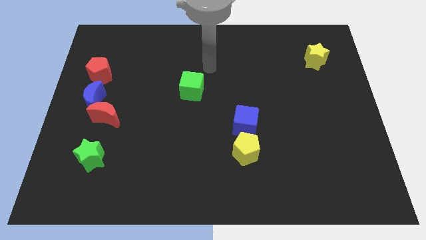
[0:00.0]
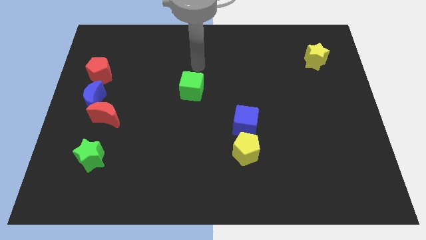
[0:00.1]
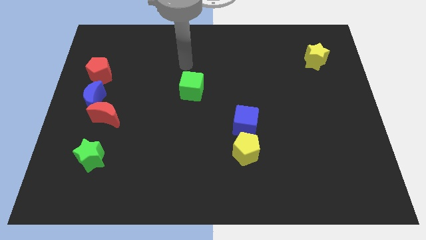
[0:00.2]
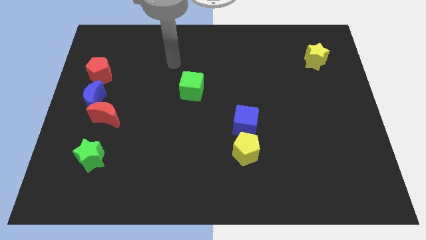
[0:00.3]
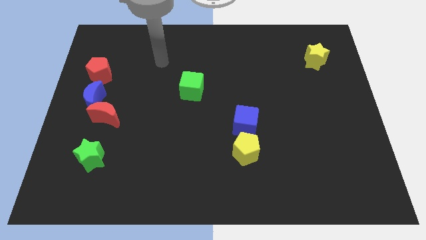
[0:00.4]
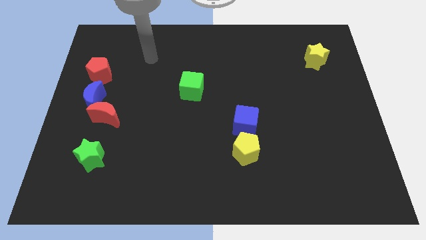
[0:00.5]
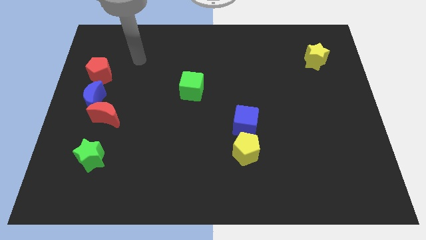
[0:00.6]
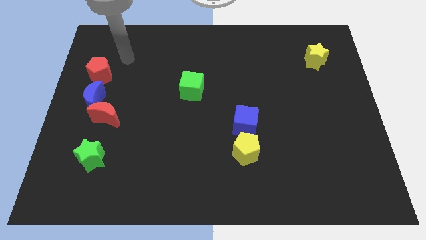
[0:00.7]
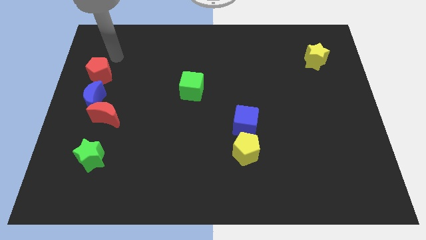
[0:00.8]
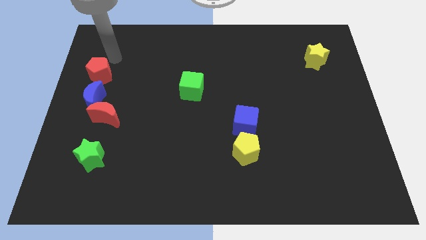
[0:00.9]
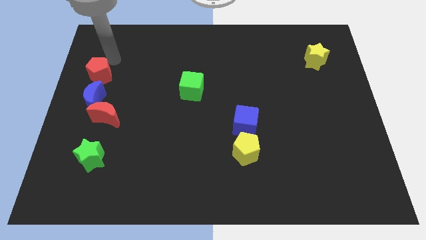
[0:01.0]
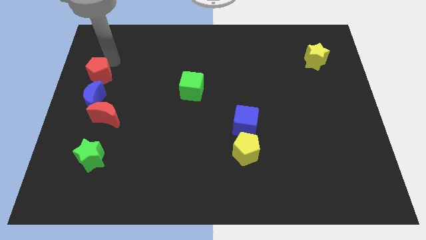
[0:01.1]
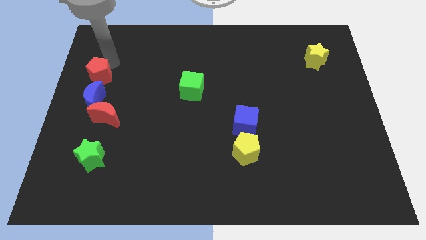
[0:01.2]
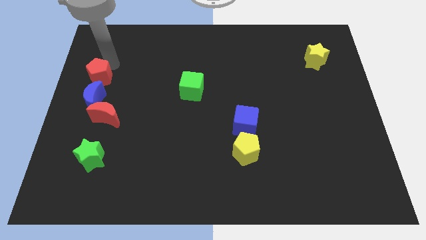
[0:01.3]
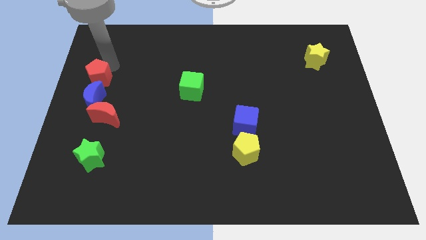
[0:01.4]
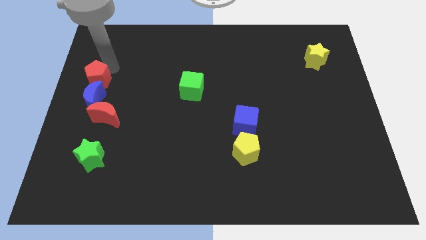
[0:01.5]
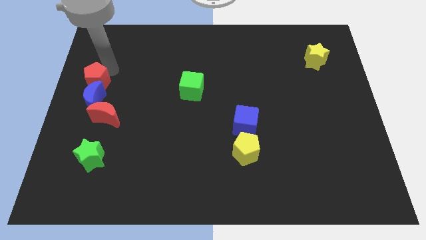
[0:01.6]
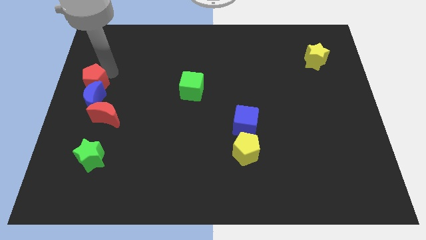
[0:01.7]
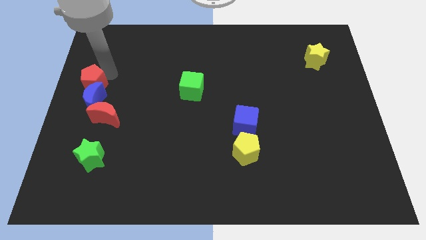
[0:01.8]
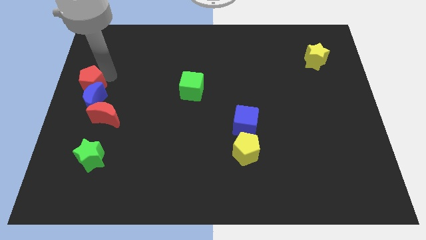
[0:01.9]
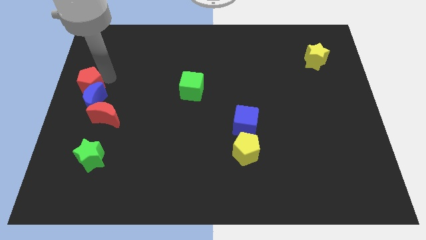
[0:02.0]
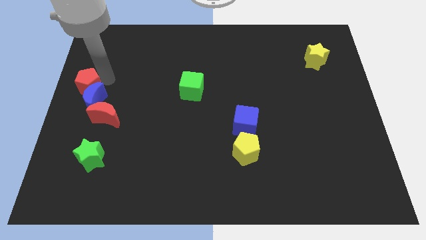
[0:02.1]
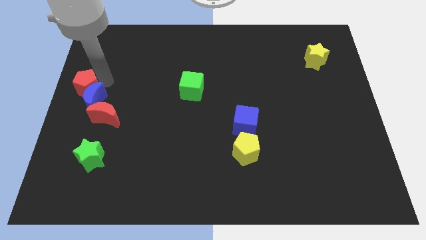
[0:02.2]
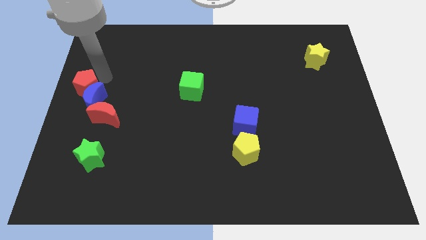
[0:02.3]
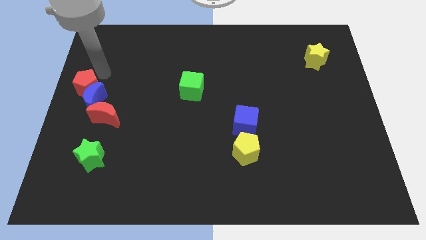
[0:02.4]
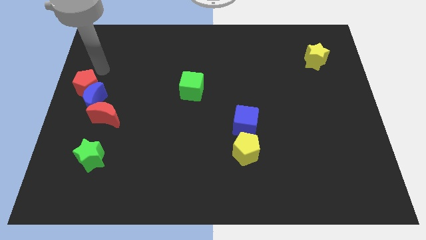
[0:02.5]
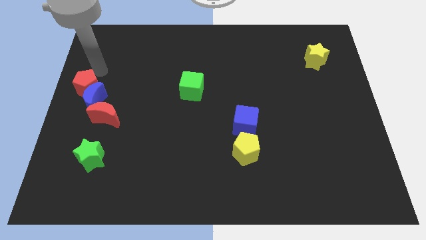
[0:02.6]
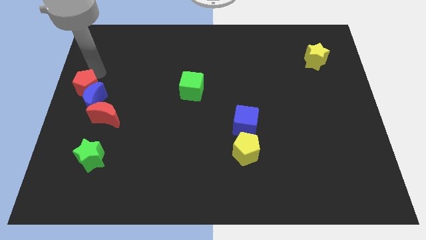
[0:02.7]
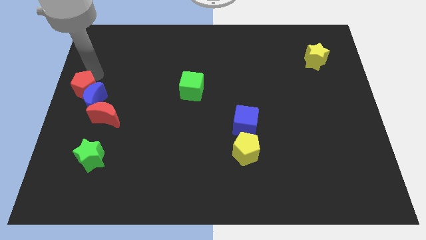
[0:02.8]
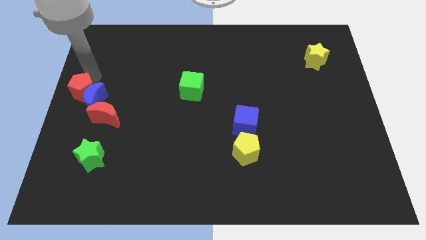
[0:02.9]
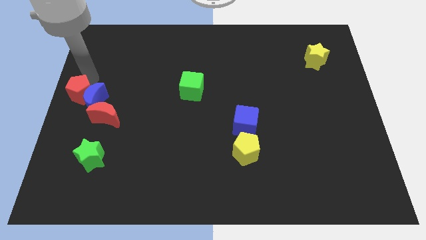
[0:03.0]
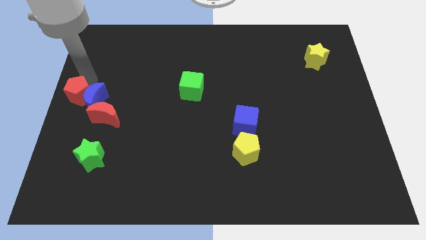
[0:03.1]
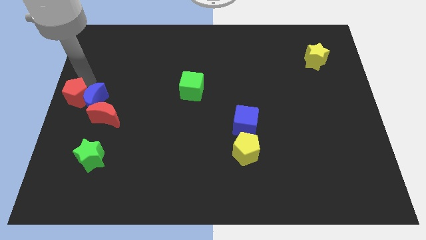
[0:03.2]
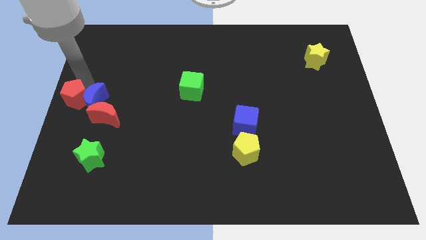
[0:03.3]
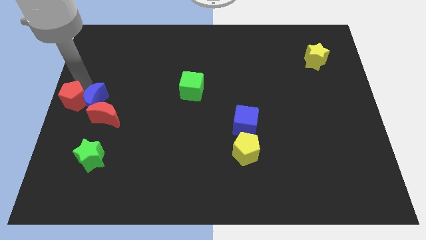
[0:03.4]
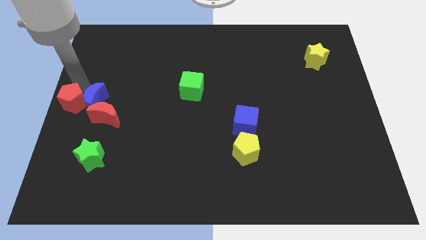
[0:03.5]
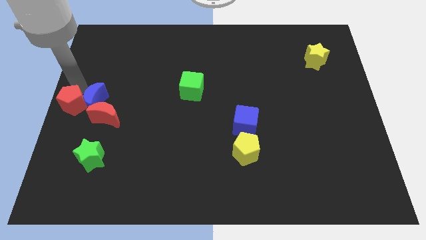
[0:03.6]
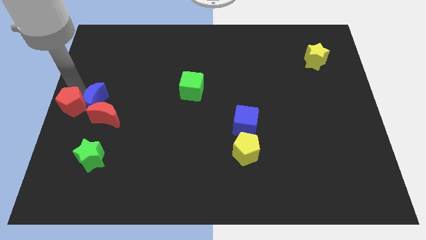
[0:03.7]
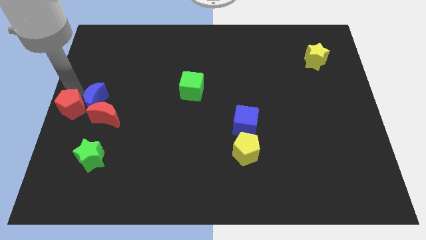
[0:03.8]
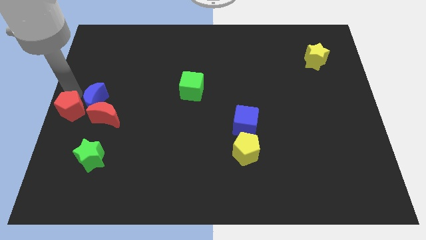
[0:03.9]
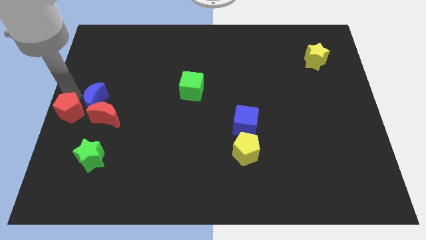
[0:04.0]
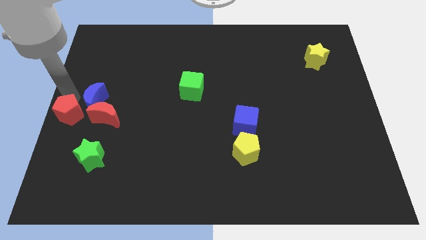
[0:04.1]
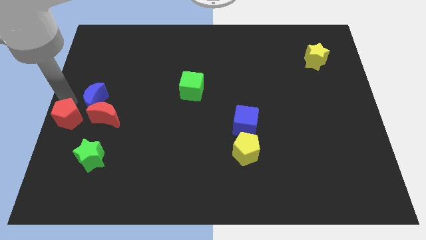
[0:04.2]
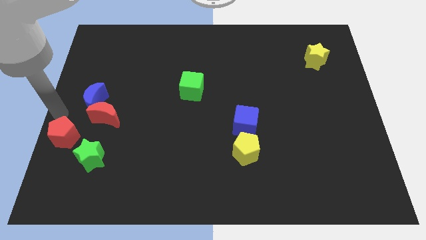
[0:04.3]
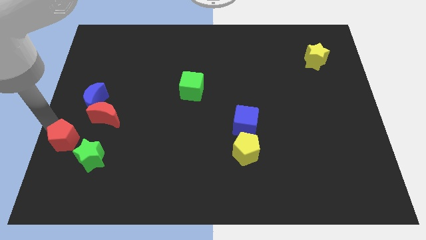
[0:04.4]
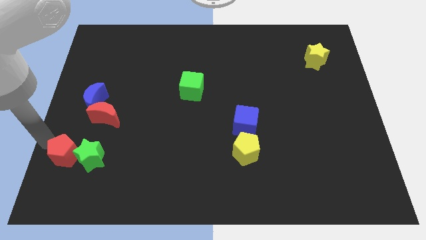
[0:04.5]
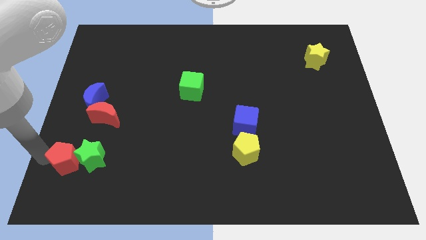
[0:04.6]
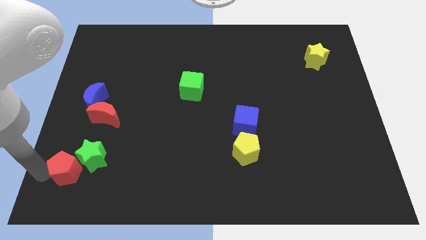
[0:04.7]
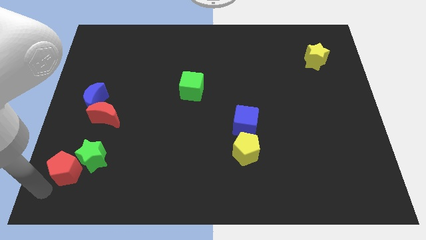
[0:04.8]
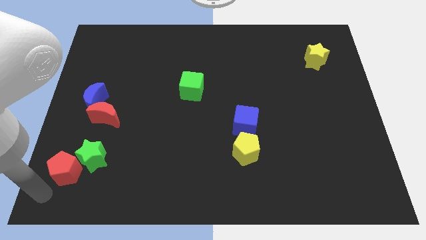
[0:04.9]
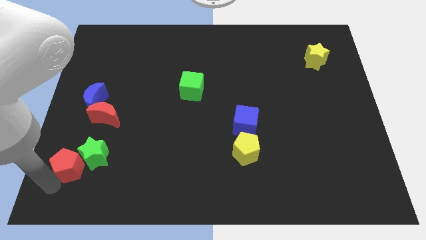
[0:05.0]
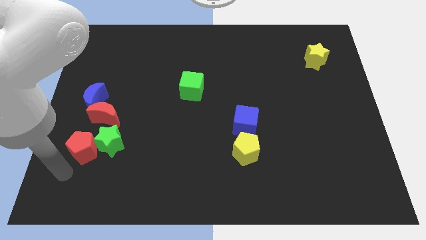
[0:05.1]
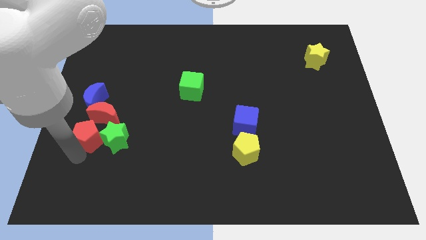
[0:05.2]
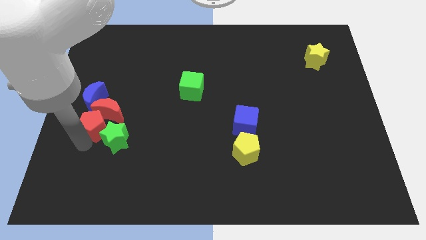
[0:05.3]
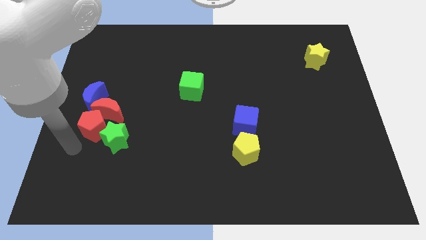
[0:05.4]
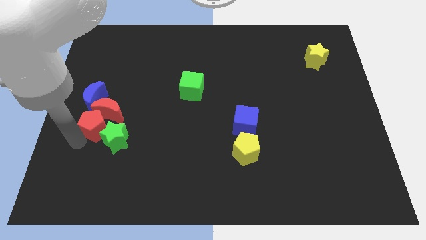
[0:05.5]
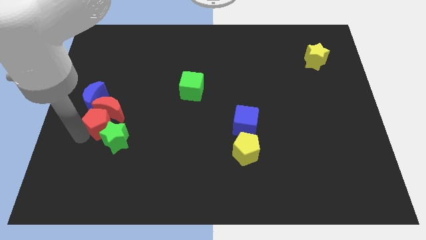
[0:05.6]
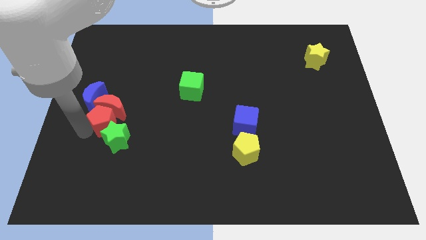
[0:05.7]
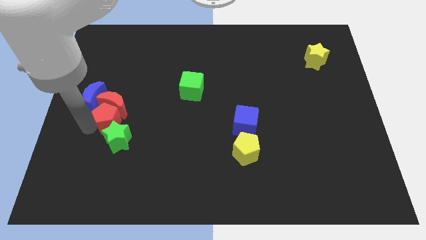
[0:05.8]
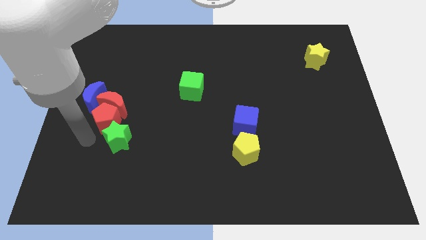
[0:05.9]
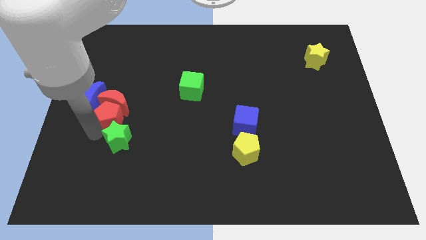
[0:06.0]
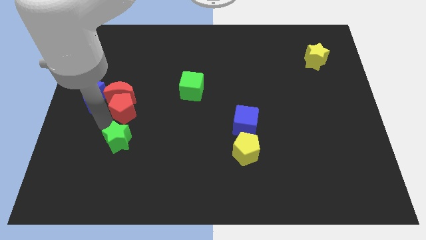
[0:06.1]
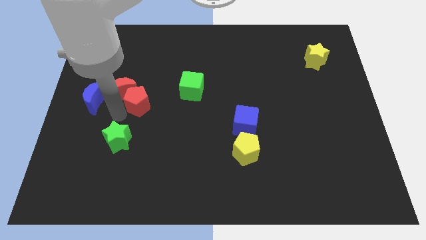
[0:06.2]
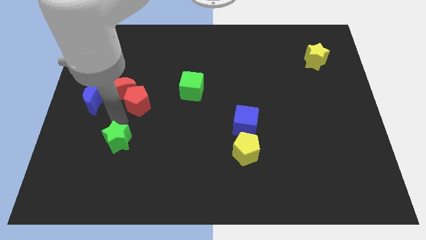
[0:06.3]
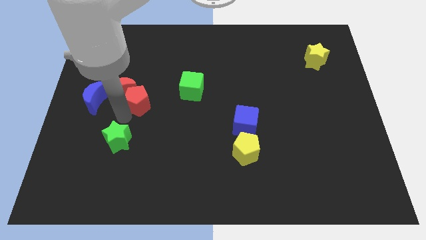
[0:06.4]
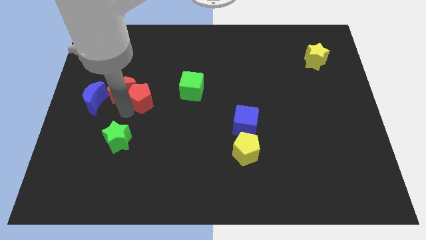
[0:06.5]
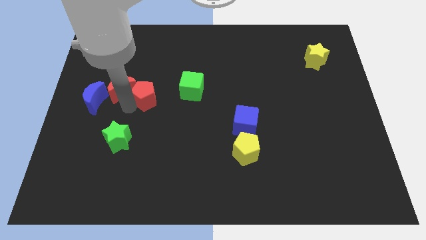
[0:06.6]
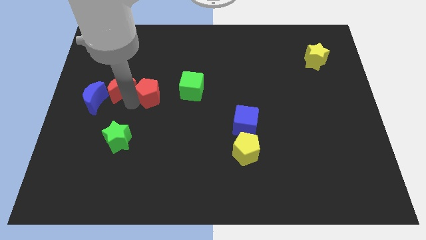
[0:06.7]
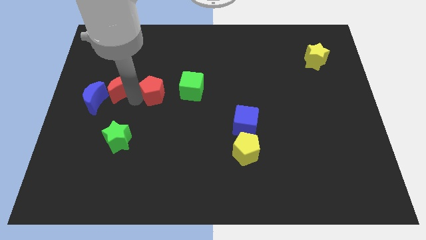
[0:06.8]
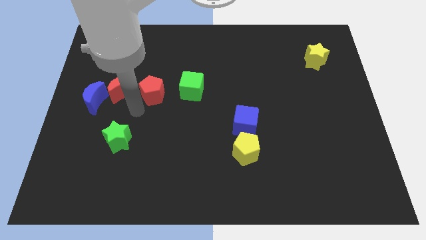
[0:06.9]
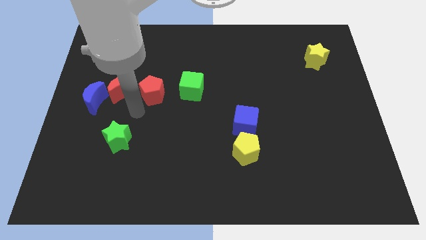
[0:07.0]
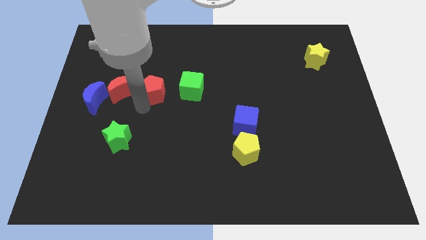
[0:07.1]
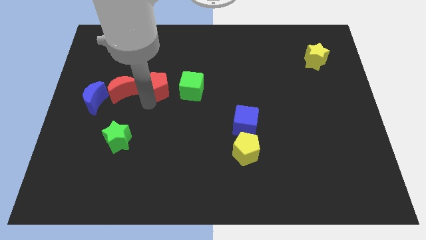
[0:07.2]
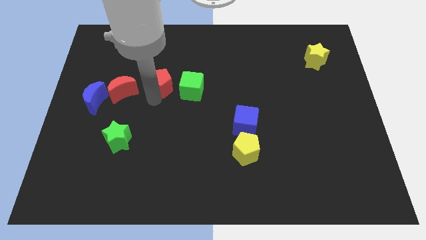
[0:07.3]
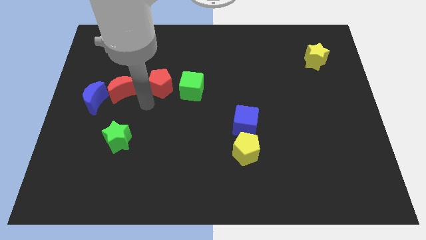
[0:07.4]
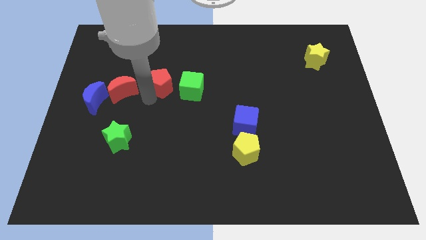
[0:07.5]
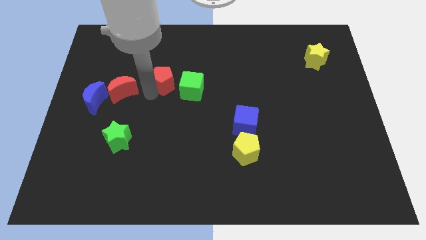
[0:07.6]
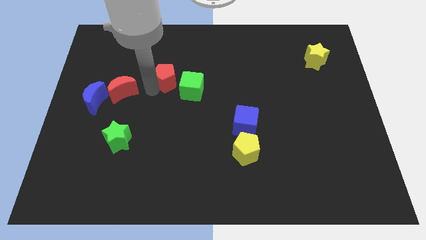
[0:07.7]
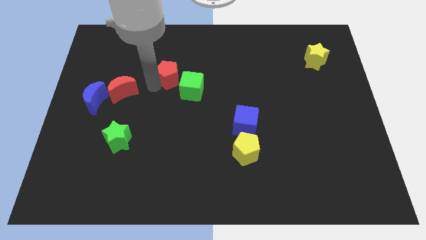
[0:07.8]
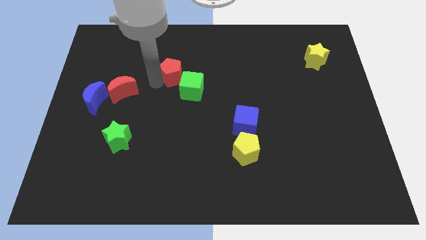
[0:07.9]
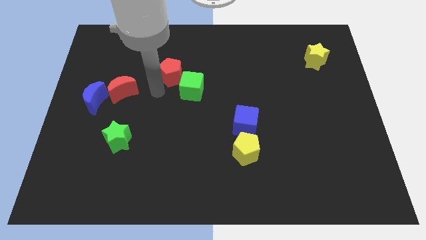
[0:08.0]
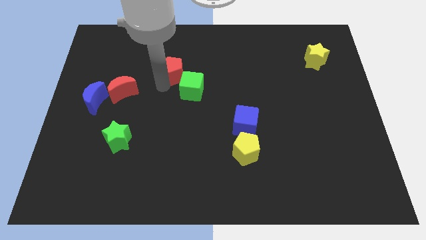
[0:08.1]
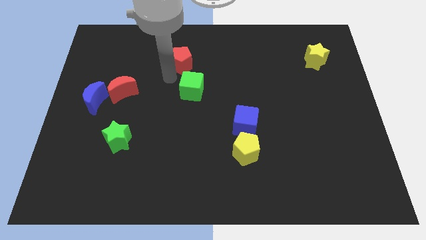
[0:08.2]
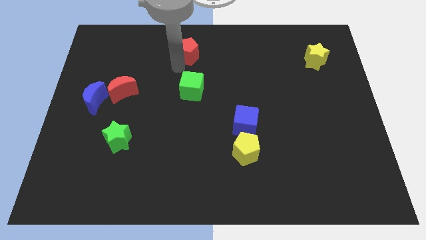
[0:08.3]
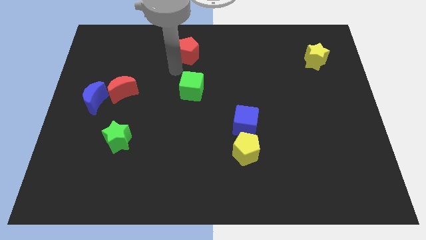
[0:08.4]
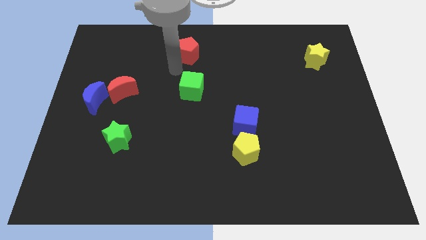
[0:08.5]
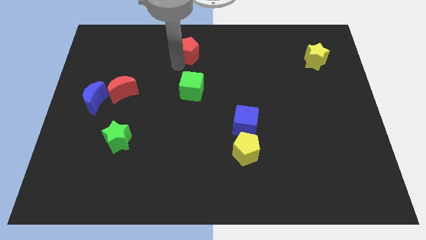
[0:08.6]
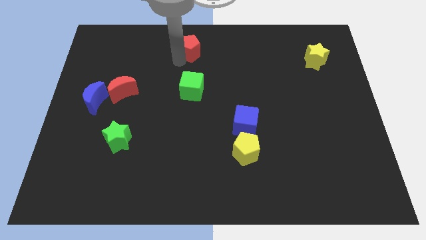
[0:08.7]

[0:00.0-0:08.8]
move the red pentagon to the towards your base
